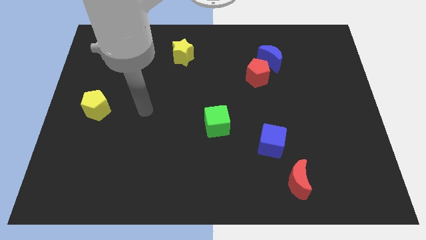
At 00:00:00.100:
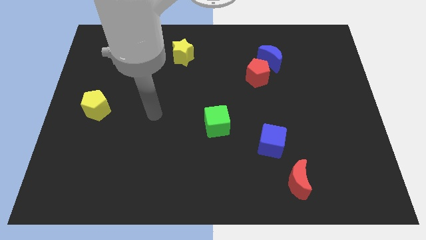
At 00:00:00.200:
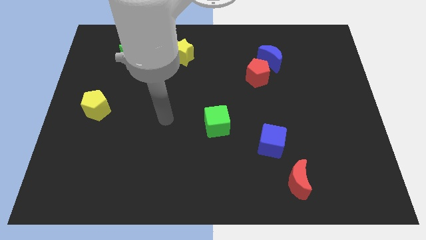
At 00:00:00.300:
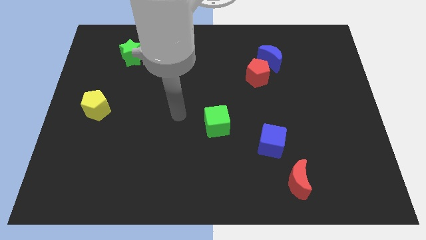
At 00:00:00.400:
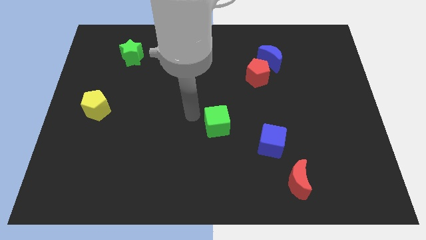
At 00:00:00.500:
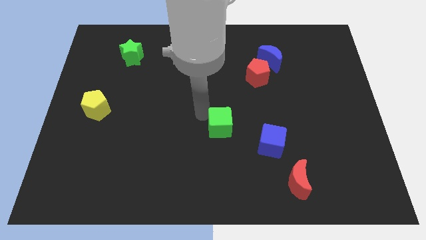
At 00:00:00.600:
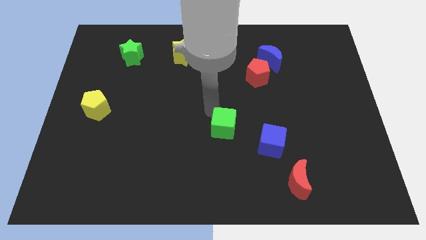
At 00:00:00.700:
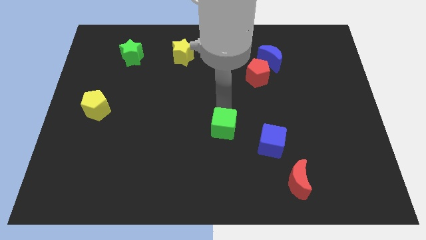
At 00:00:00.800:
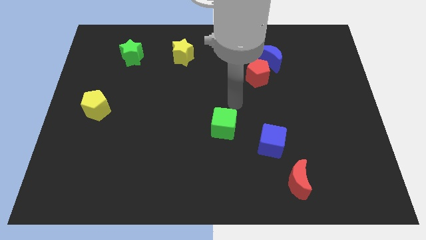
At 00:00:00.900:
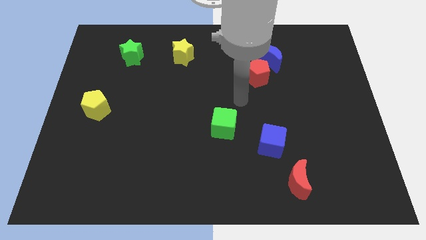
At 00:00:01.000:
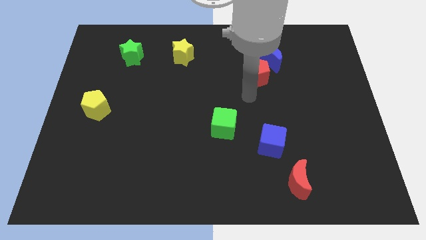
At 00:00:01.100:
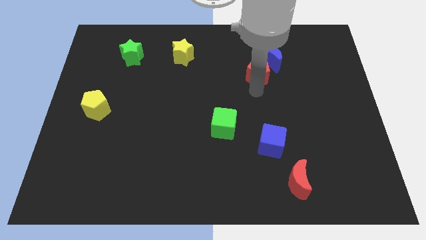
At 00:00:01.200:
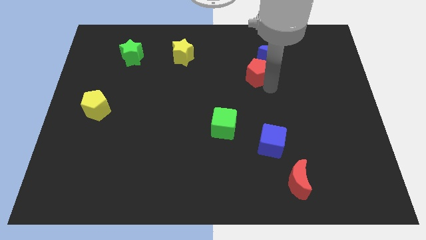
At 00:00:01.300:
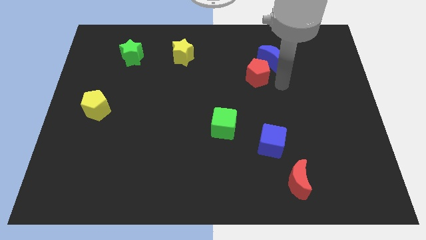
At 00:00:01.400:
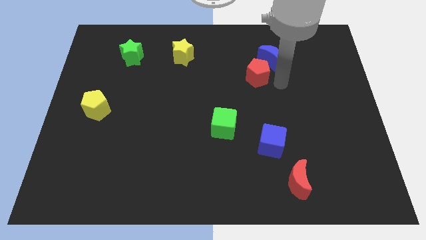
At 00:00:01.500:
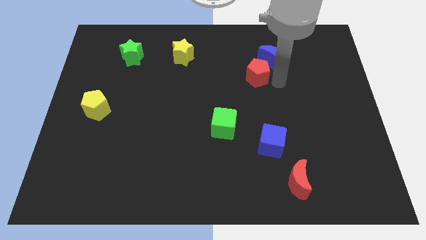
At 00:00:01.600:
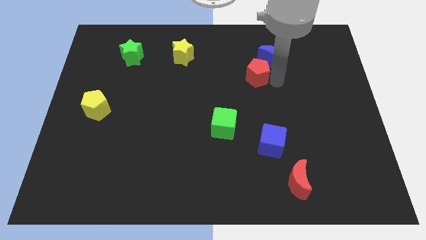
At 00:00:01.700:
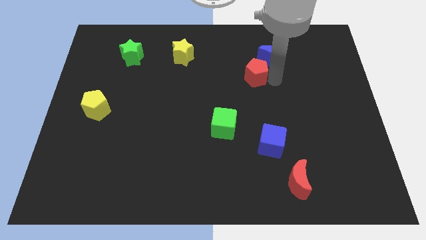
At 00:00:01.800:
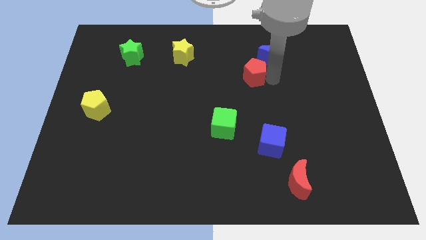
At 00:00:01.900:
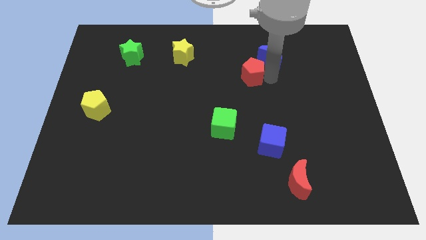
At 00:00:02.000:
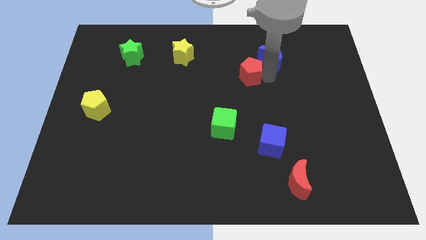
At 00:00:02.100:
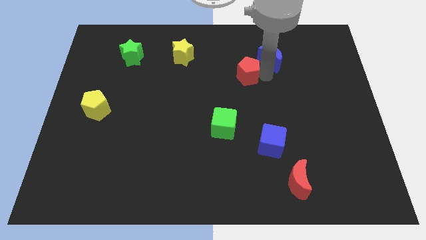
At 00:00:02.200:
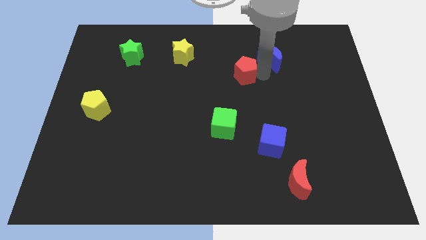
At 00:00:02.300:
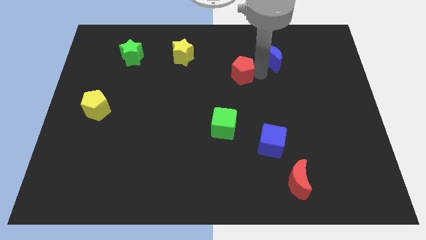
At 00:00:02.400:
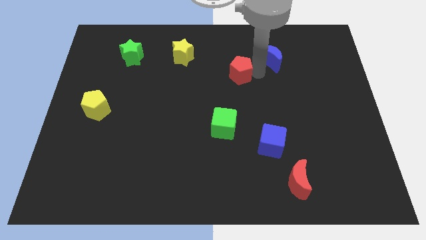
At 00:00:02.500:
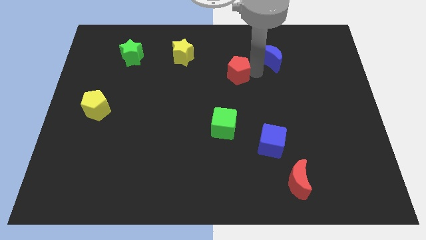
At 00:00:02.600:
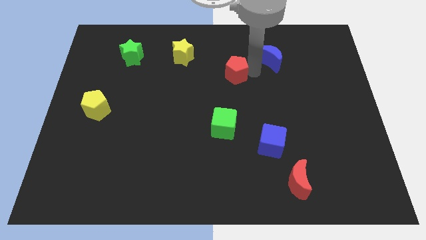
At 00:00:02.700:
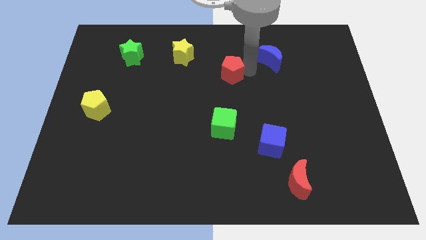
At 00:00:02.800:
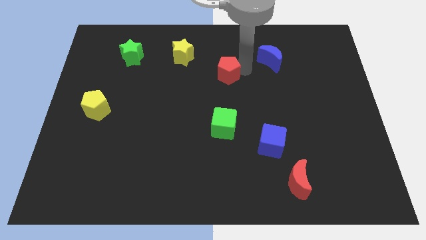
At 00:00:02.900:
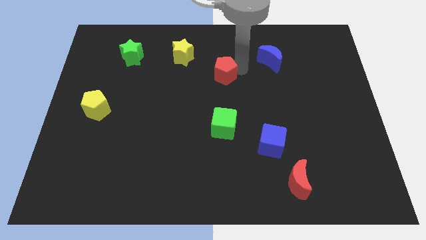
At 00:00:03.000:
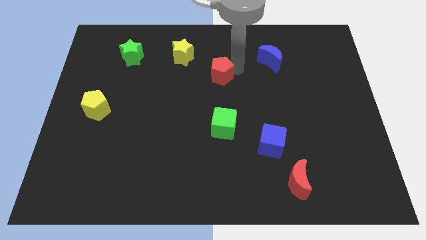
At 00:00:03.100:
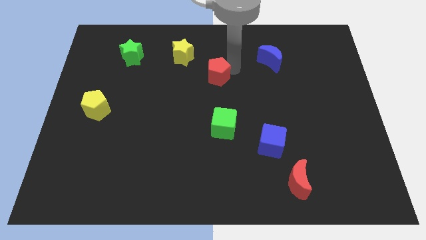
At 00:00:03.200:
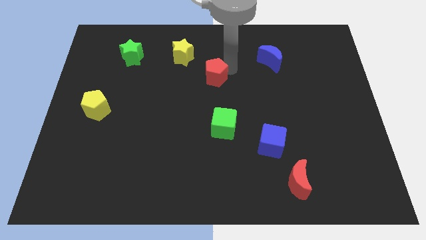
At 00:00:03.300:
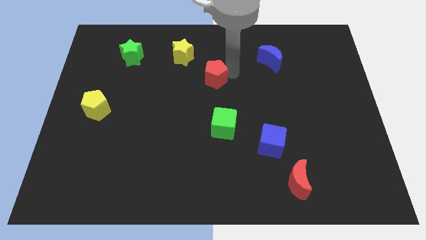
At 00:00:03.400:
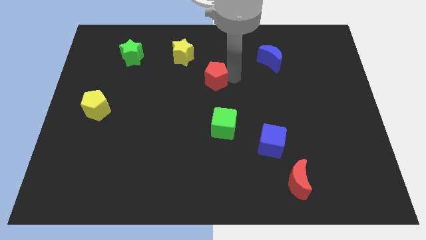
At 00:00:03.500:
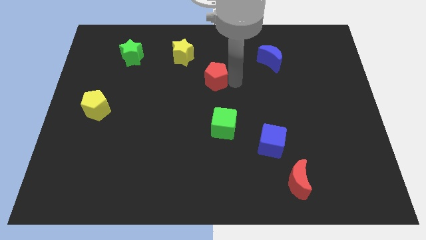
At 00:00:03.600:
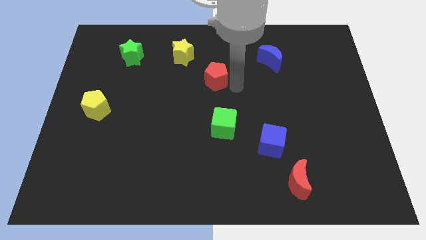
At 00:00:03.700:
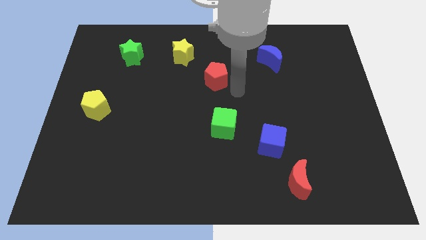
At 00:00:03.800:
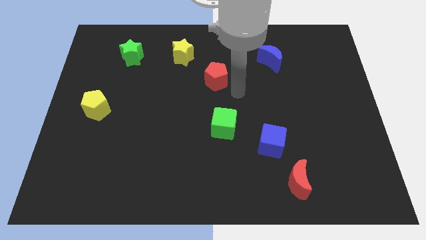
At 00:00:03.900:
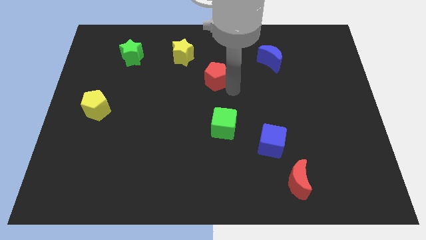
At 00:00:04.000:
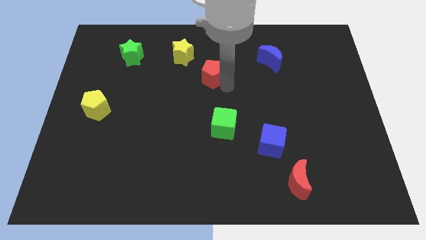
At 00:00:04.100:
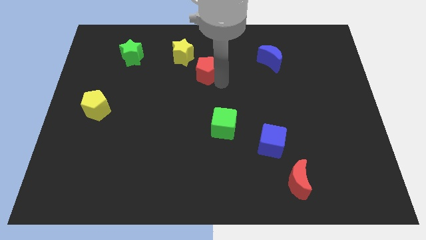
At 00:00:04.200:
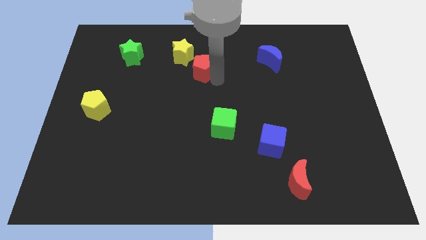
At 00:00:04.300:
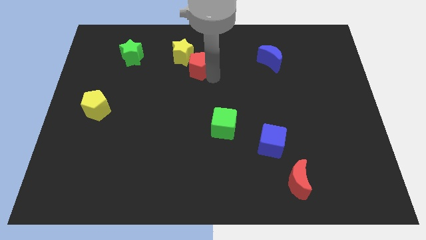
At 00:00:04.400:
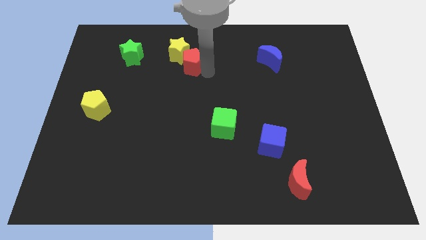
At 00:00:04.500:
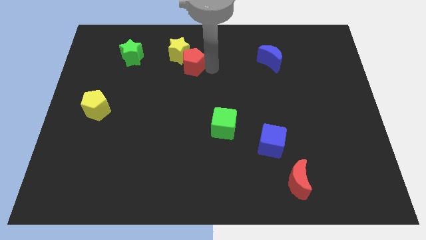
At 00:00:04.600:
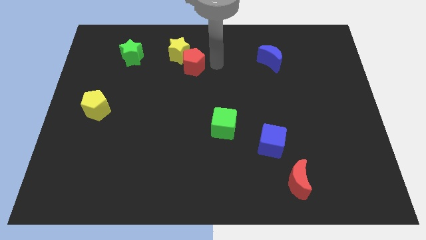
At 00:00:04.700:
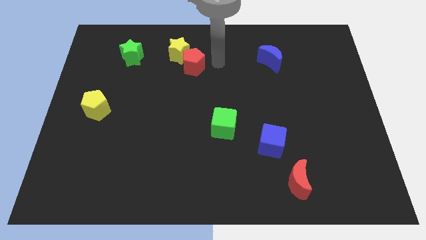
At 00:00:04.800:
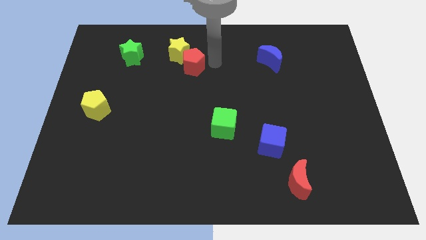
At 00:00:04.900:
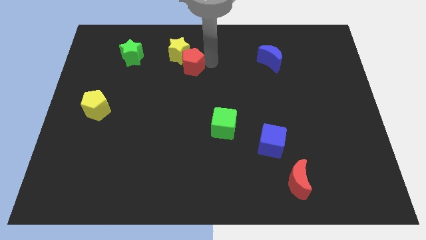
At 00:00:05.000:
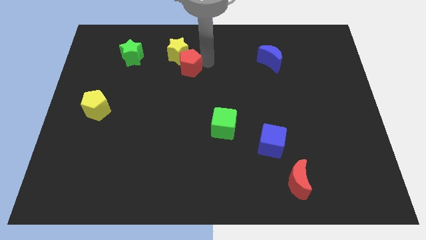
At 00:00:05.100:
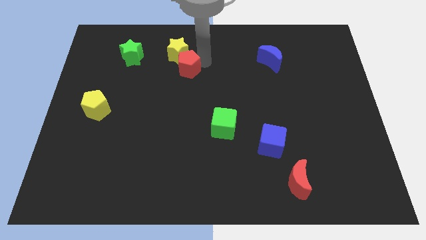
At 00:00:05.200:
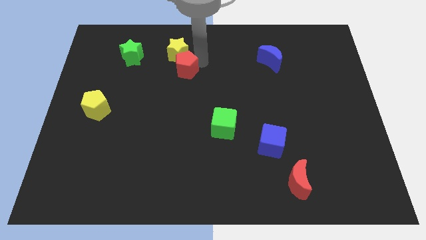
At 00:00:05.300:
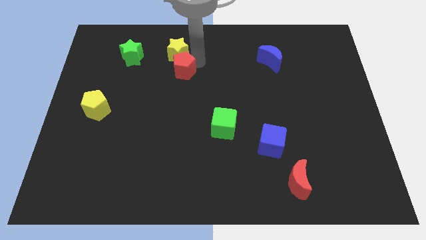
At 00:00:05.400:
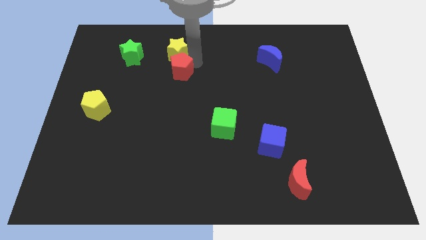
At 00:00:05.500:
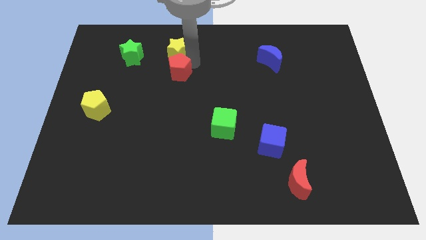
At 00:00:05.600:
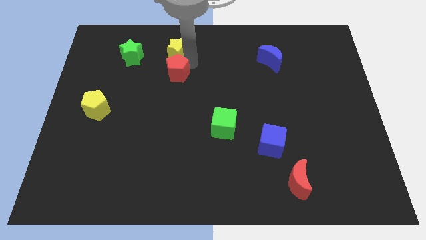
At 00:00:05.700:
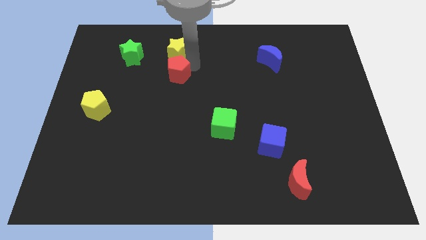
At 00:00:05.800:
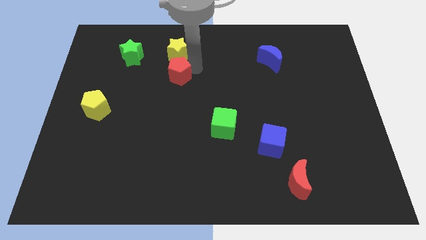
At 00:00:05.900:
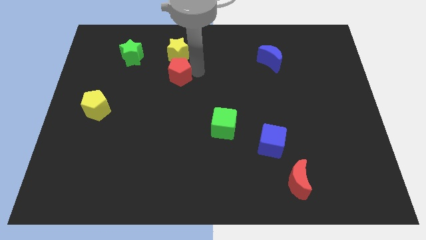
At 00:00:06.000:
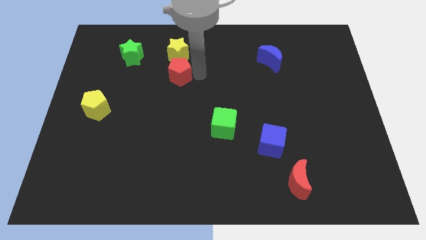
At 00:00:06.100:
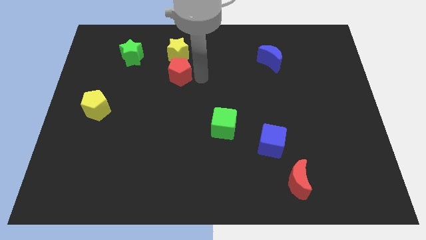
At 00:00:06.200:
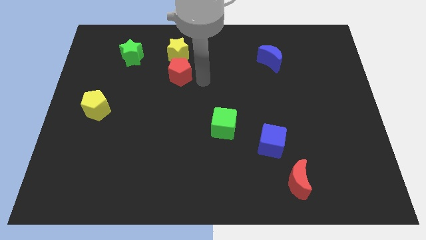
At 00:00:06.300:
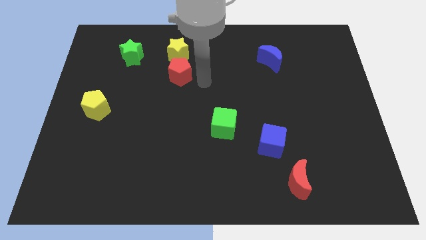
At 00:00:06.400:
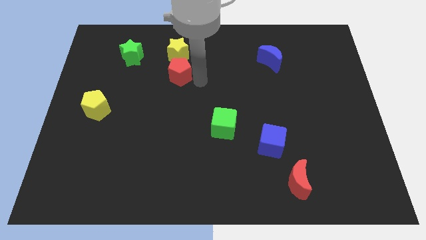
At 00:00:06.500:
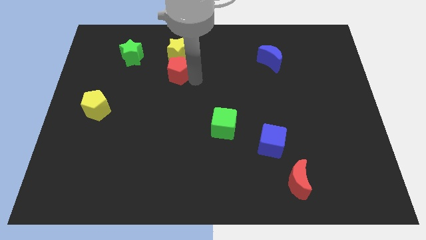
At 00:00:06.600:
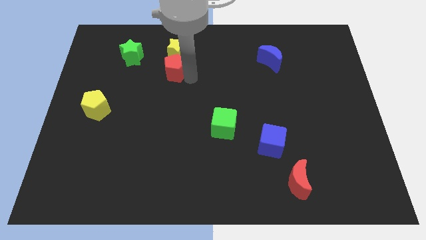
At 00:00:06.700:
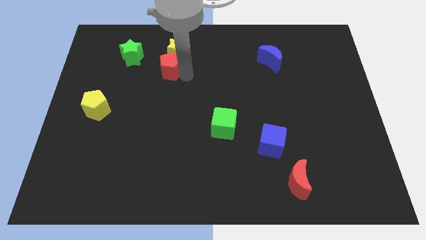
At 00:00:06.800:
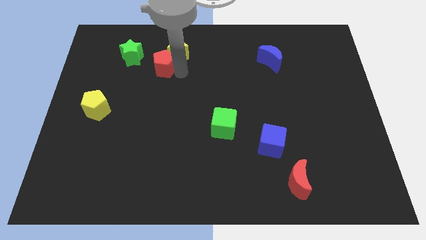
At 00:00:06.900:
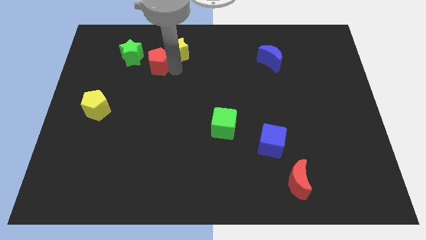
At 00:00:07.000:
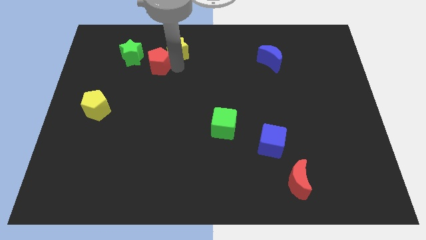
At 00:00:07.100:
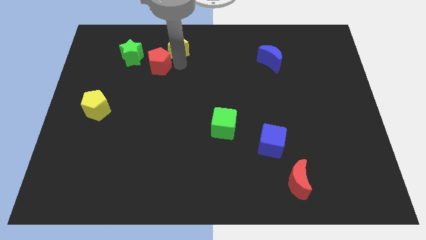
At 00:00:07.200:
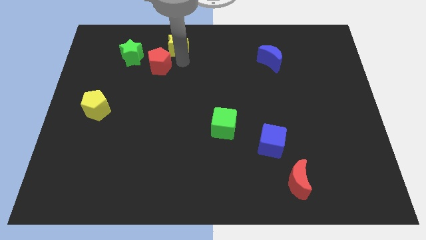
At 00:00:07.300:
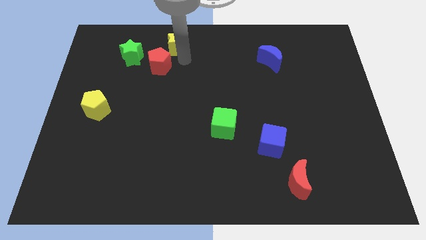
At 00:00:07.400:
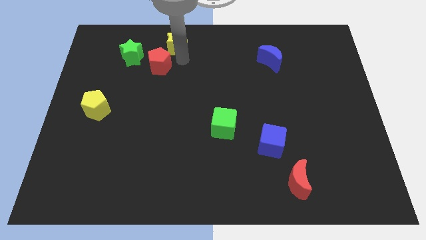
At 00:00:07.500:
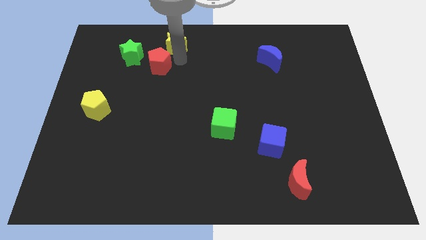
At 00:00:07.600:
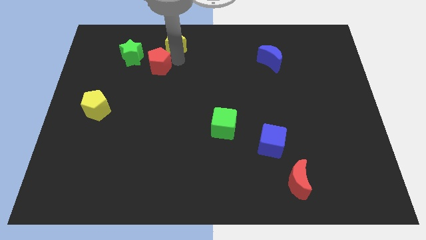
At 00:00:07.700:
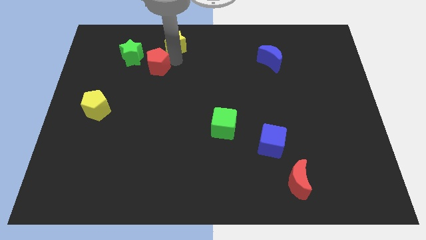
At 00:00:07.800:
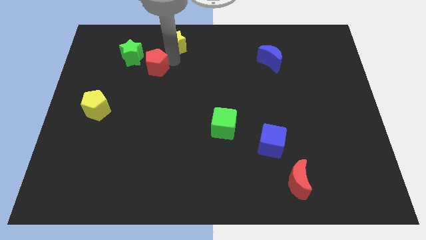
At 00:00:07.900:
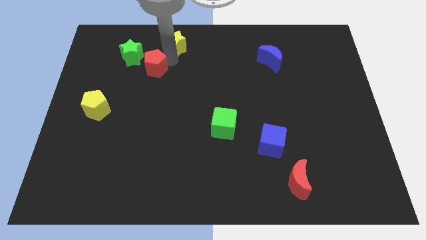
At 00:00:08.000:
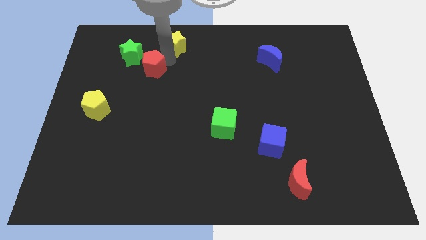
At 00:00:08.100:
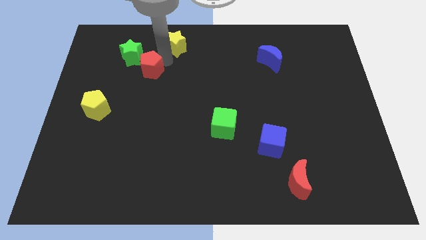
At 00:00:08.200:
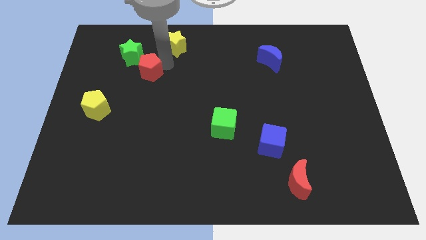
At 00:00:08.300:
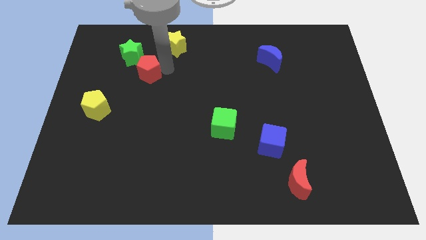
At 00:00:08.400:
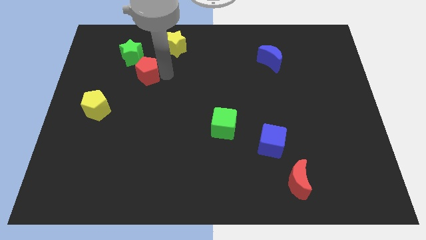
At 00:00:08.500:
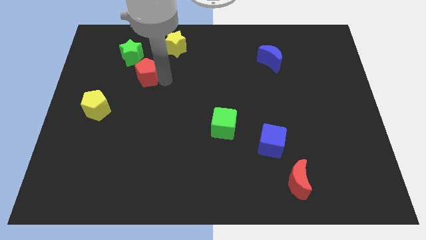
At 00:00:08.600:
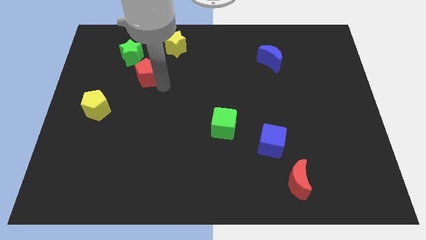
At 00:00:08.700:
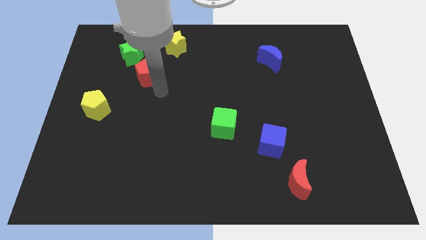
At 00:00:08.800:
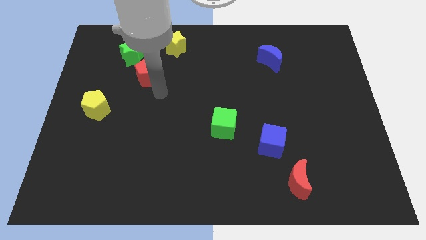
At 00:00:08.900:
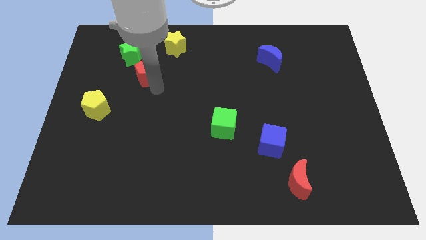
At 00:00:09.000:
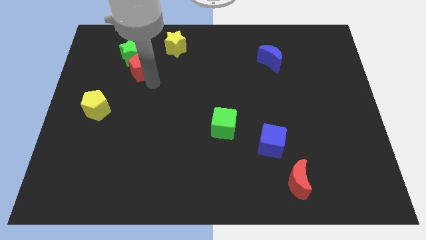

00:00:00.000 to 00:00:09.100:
slide the red pentagon towards the green star
